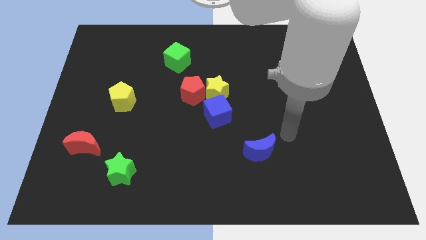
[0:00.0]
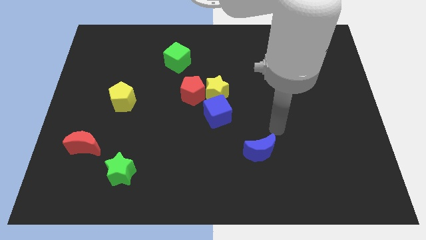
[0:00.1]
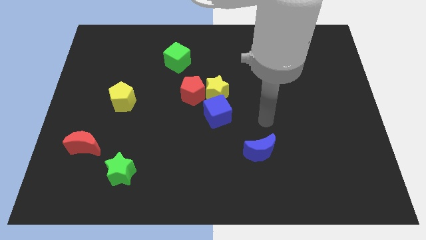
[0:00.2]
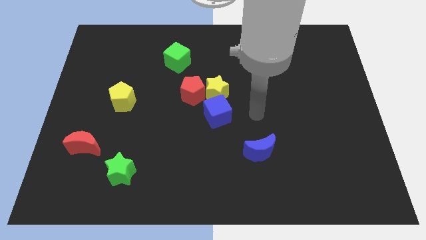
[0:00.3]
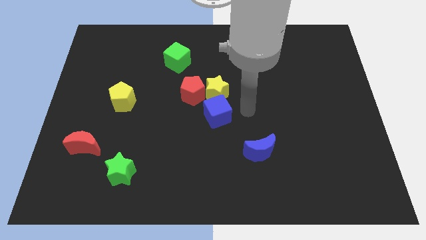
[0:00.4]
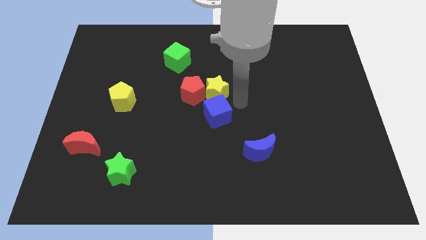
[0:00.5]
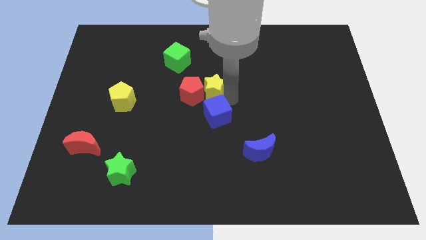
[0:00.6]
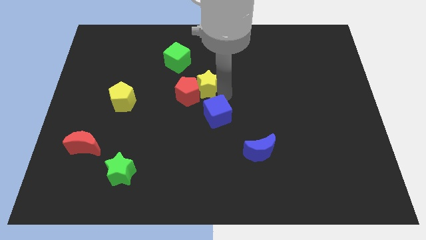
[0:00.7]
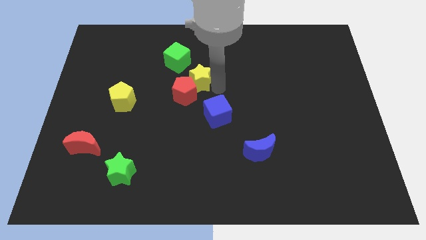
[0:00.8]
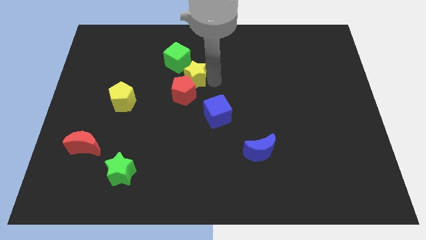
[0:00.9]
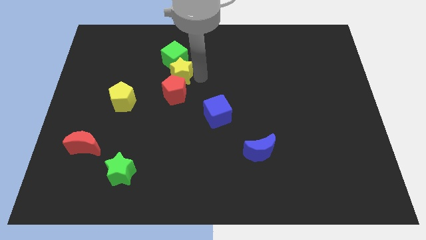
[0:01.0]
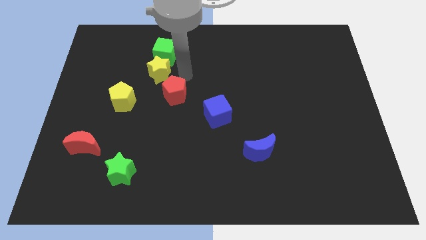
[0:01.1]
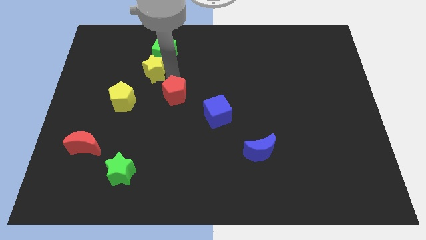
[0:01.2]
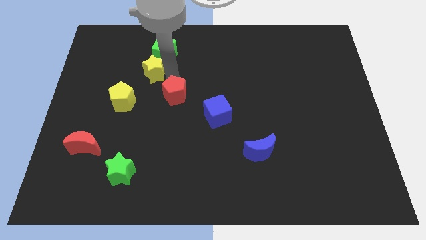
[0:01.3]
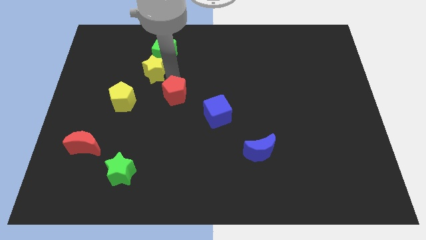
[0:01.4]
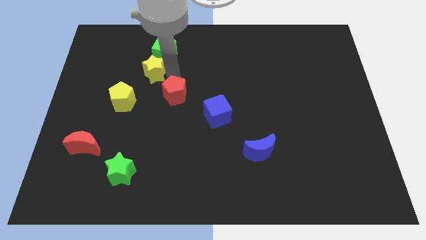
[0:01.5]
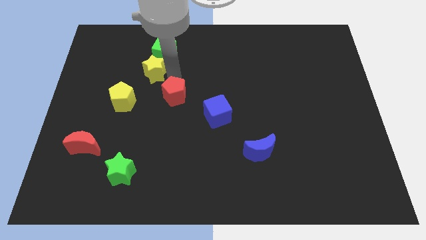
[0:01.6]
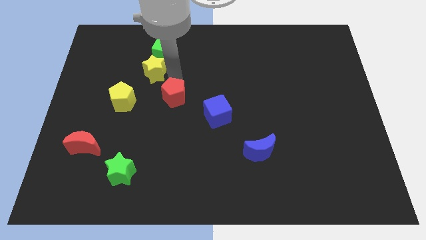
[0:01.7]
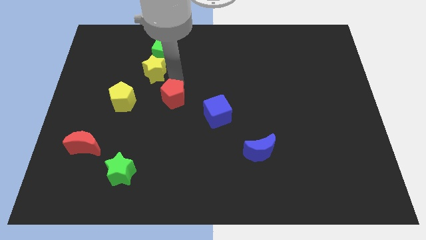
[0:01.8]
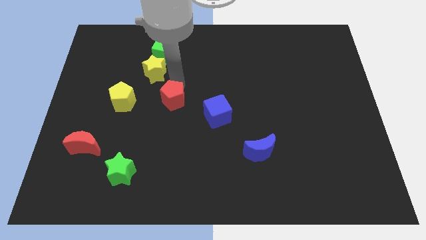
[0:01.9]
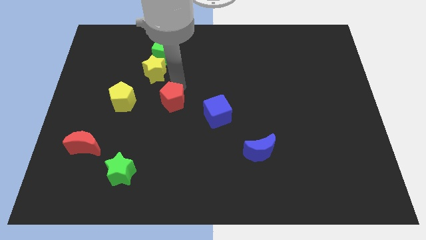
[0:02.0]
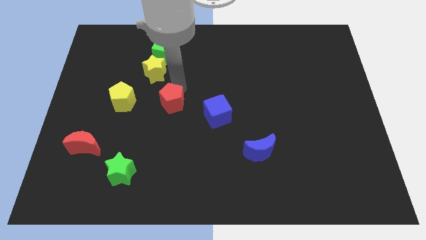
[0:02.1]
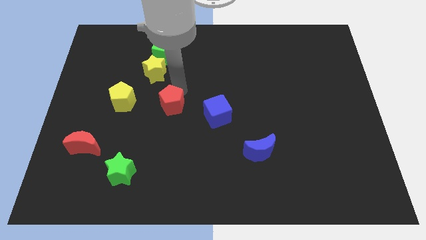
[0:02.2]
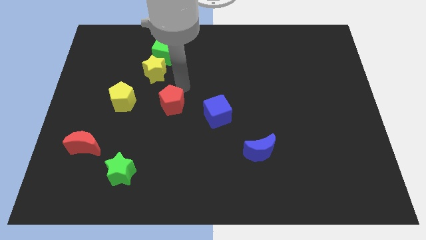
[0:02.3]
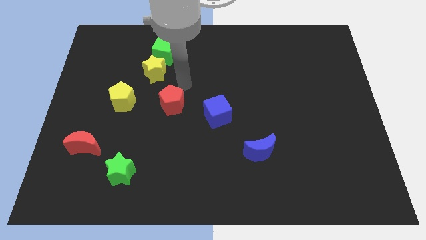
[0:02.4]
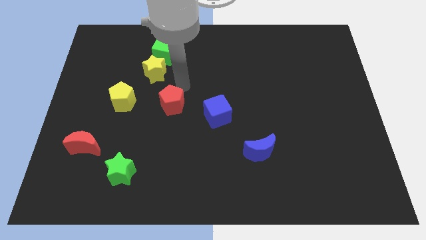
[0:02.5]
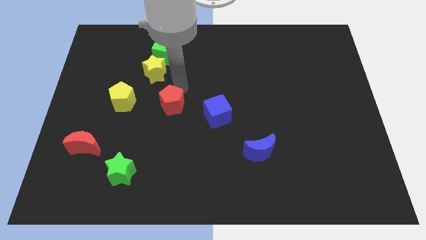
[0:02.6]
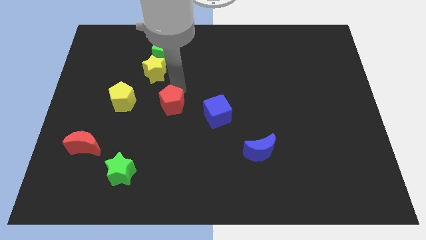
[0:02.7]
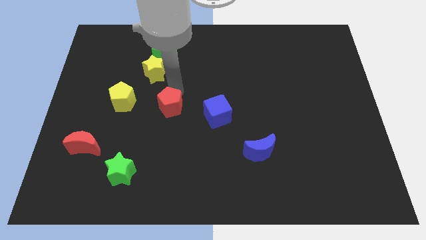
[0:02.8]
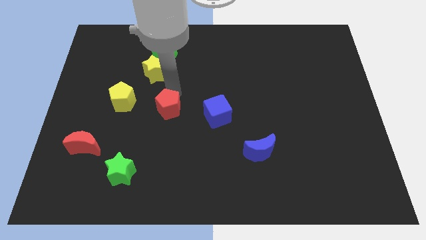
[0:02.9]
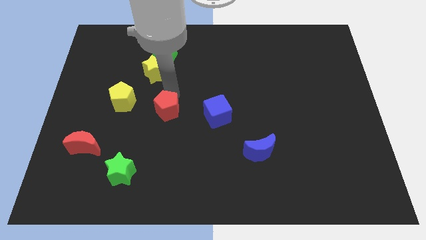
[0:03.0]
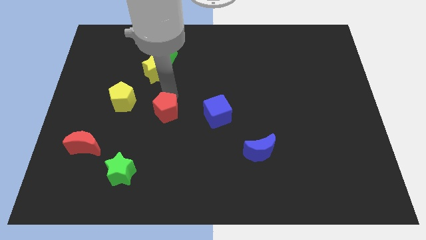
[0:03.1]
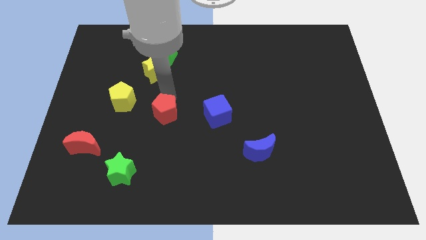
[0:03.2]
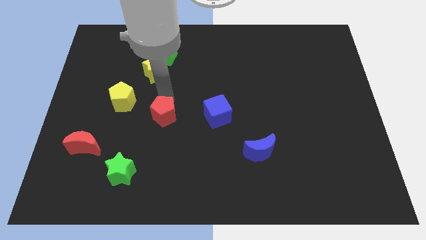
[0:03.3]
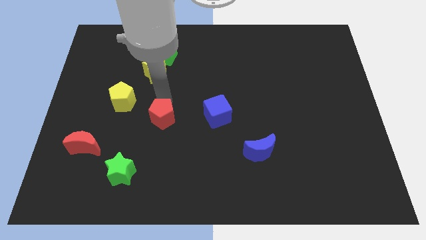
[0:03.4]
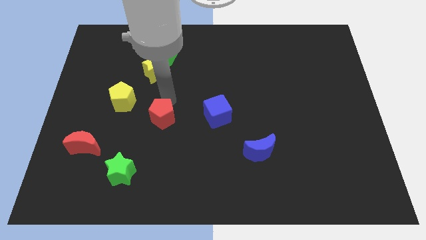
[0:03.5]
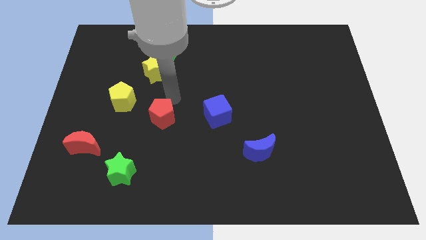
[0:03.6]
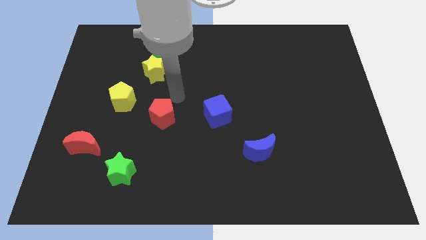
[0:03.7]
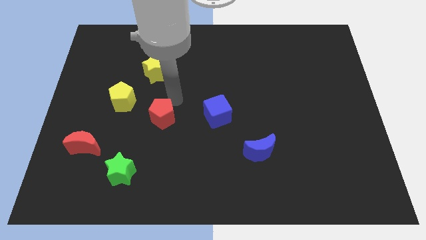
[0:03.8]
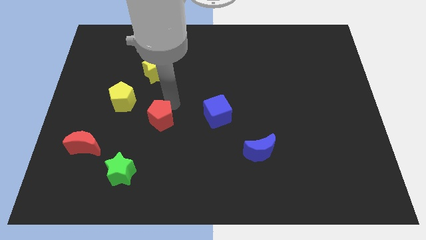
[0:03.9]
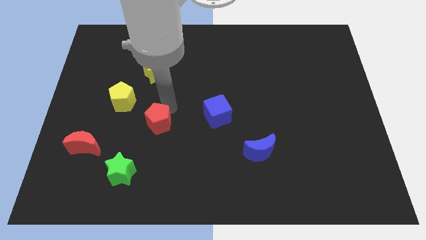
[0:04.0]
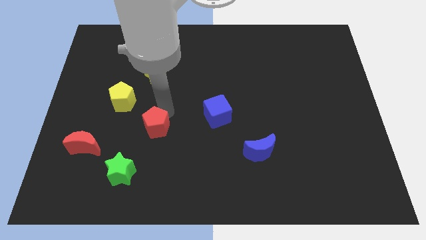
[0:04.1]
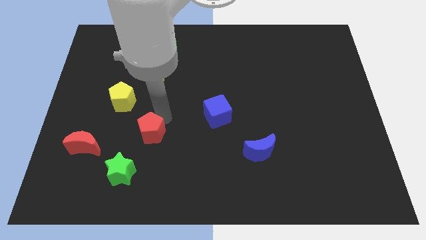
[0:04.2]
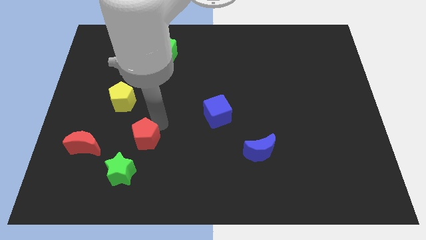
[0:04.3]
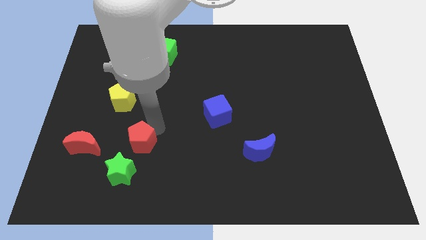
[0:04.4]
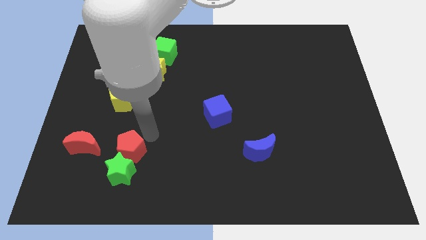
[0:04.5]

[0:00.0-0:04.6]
move the red pentagon downwards and left

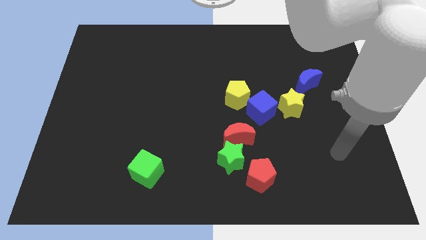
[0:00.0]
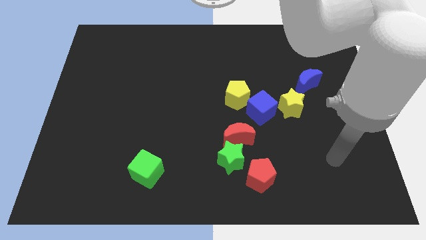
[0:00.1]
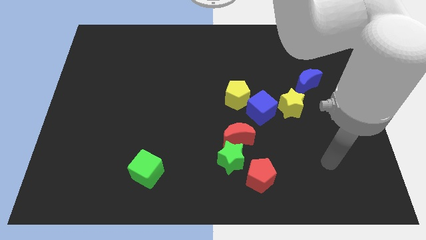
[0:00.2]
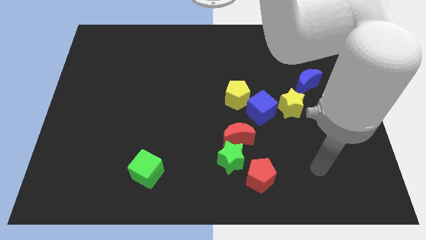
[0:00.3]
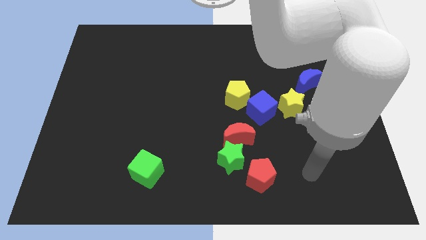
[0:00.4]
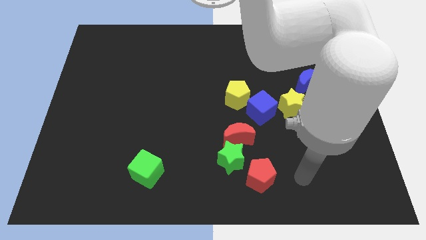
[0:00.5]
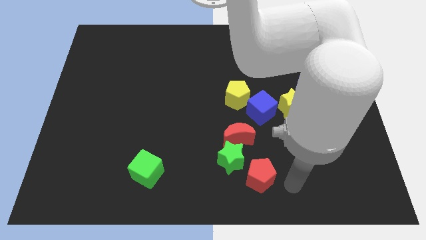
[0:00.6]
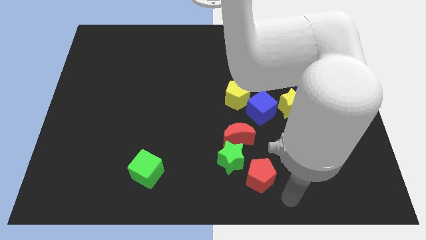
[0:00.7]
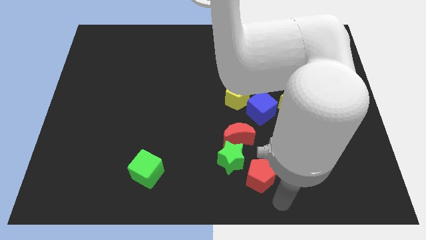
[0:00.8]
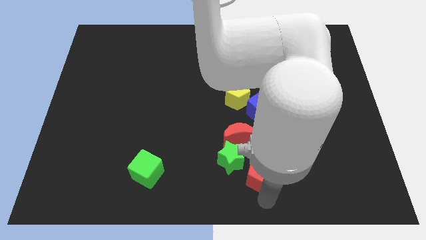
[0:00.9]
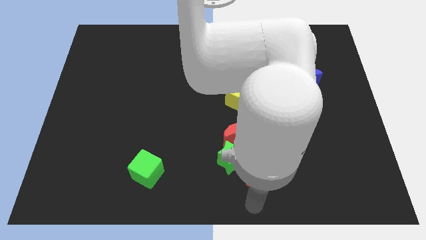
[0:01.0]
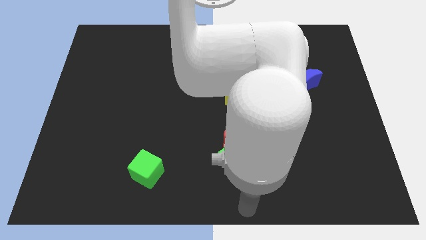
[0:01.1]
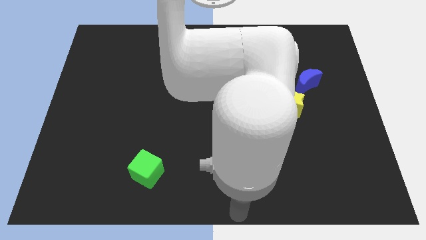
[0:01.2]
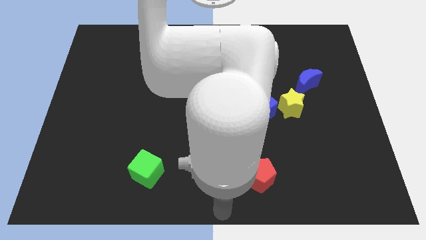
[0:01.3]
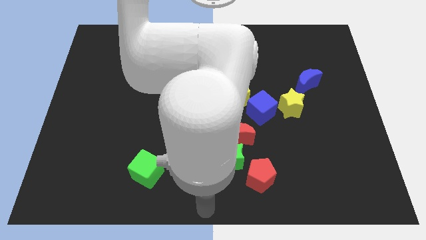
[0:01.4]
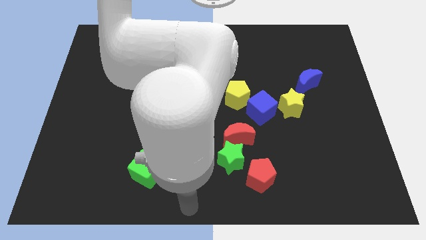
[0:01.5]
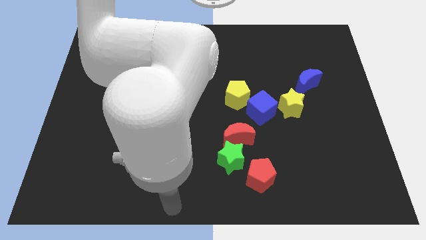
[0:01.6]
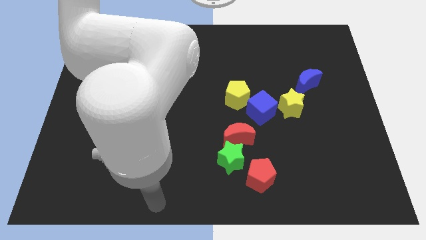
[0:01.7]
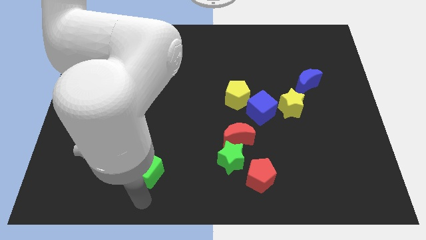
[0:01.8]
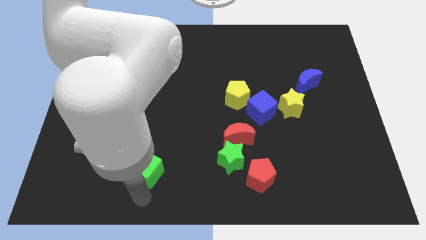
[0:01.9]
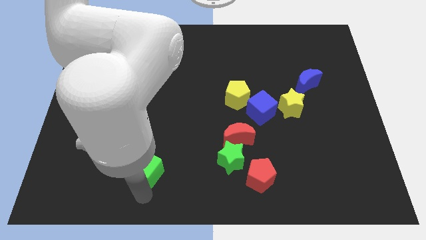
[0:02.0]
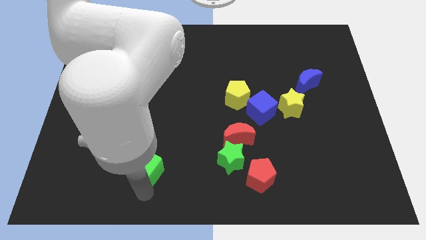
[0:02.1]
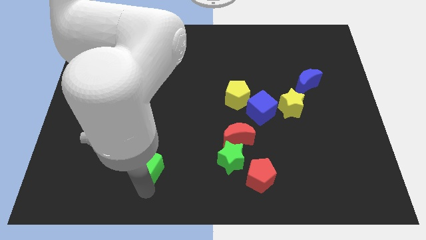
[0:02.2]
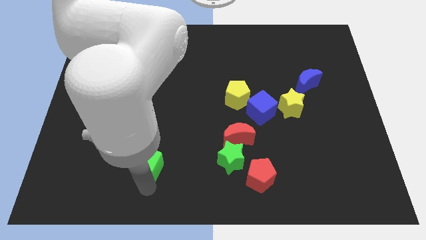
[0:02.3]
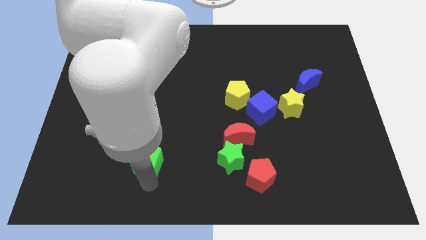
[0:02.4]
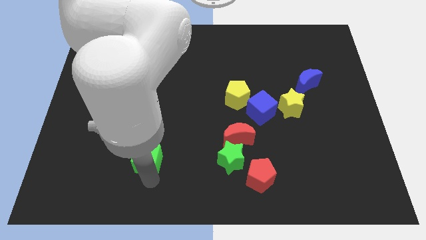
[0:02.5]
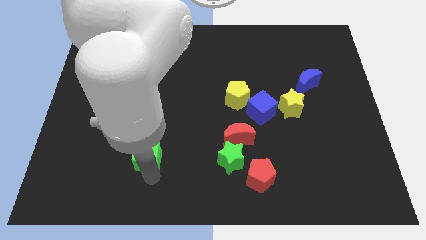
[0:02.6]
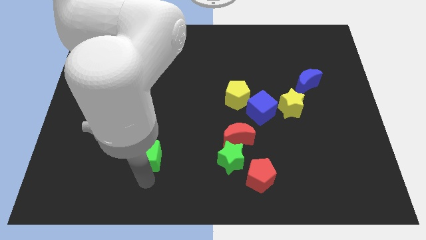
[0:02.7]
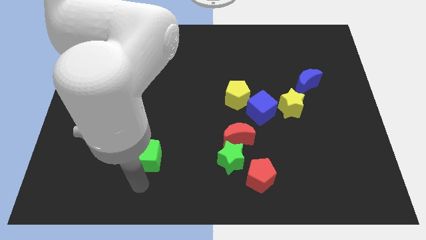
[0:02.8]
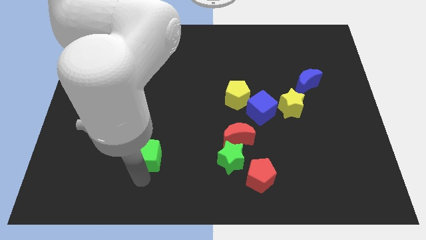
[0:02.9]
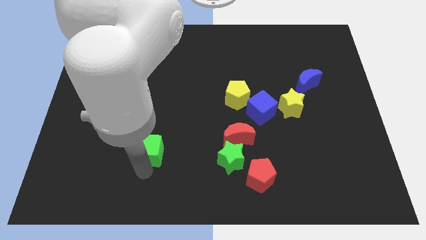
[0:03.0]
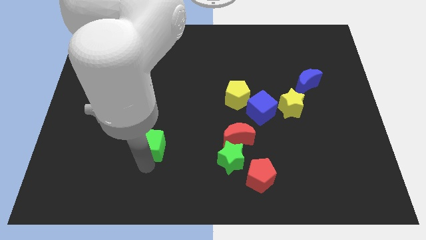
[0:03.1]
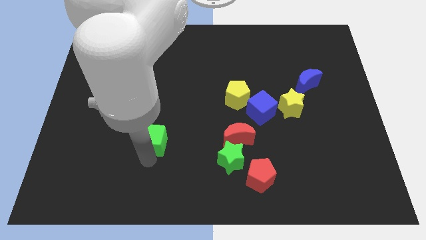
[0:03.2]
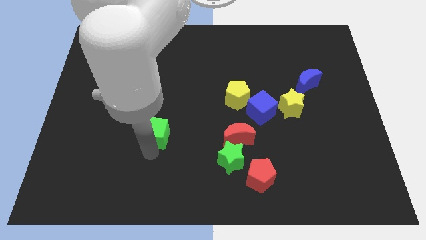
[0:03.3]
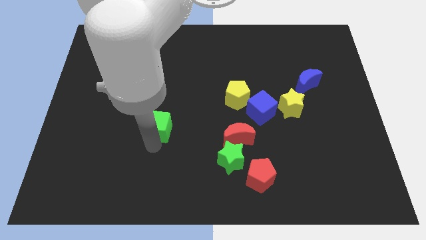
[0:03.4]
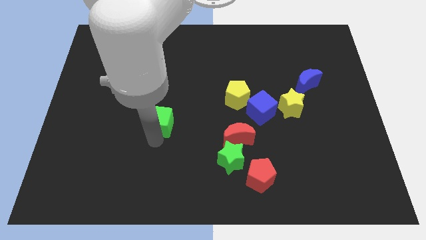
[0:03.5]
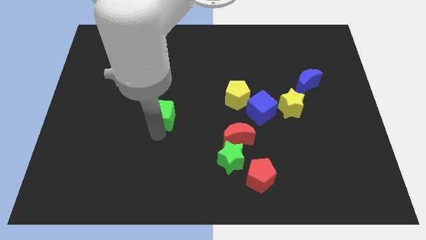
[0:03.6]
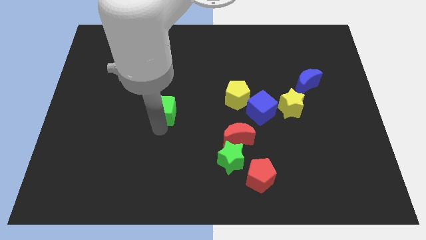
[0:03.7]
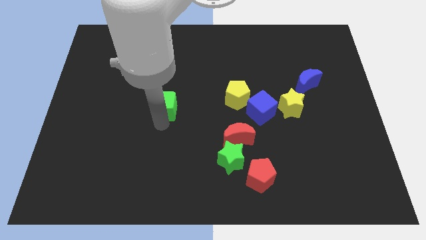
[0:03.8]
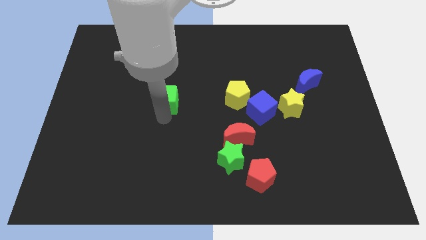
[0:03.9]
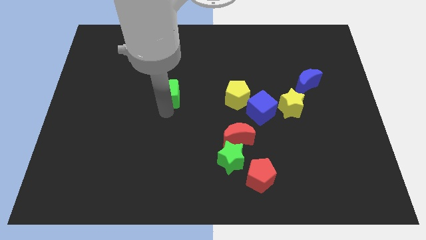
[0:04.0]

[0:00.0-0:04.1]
push the green cube up
